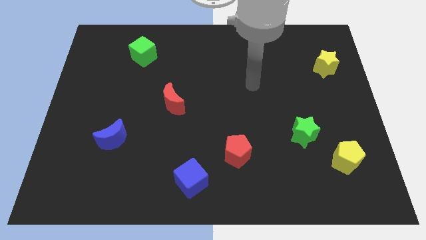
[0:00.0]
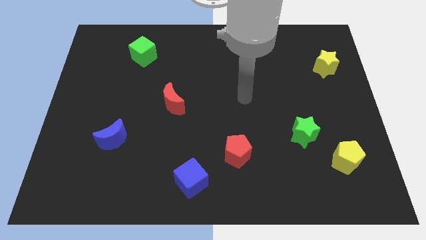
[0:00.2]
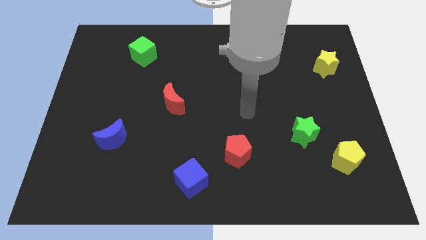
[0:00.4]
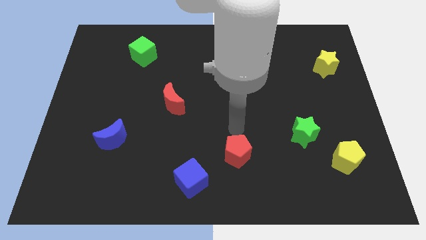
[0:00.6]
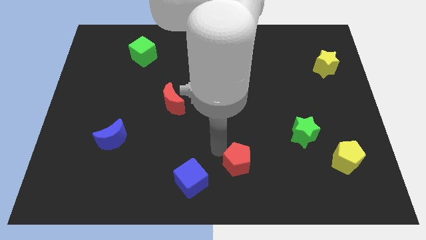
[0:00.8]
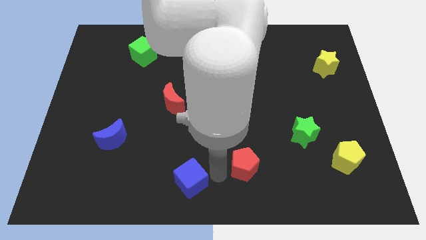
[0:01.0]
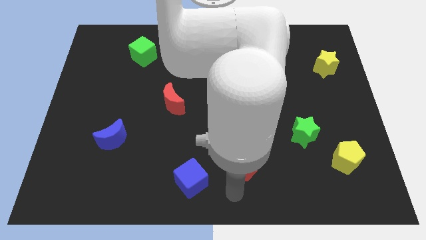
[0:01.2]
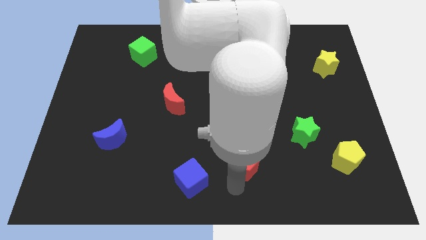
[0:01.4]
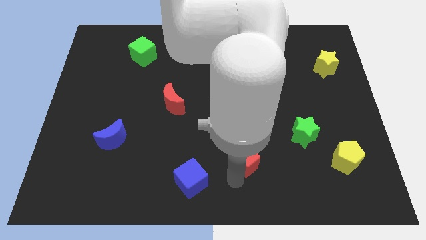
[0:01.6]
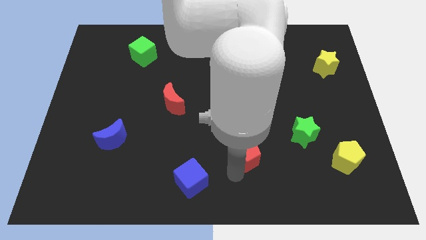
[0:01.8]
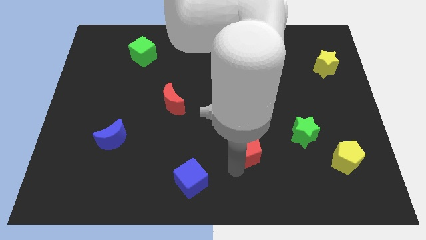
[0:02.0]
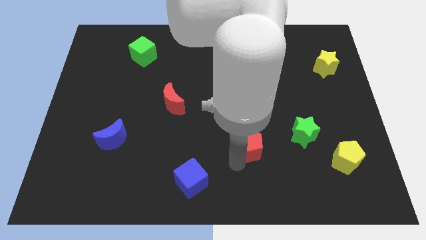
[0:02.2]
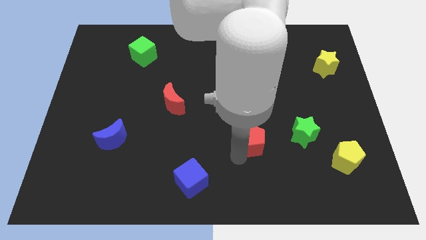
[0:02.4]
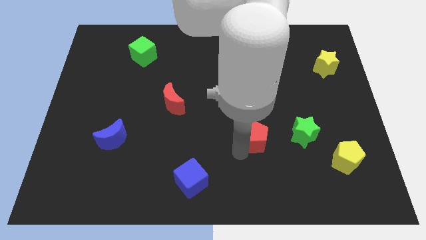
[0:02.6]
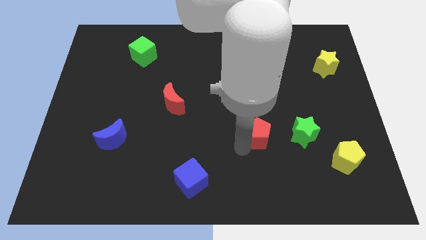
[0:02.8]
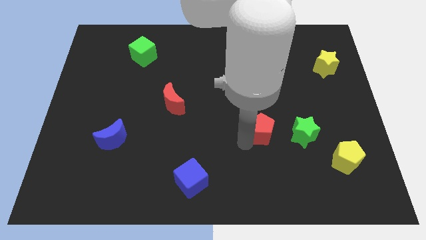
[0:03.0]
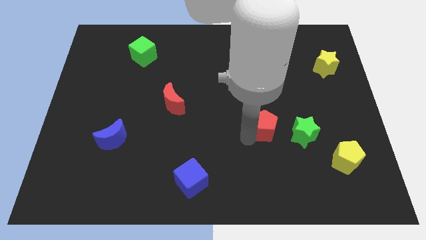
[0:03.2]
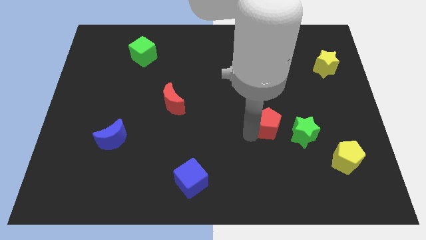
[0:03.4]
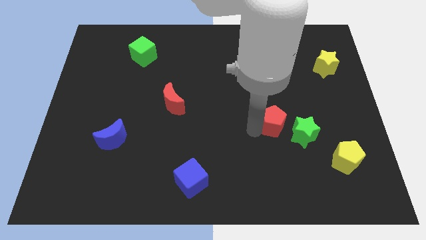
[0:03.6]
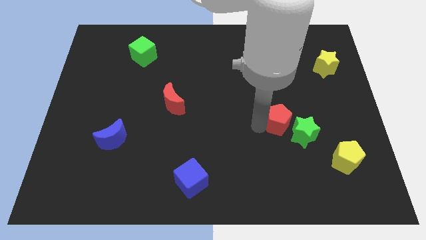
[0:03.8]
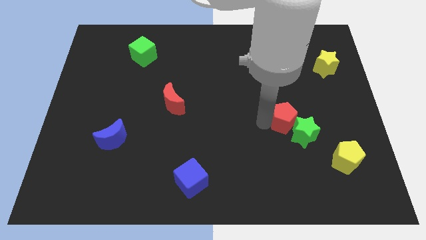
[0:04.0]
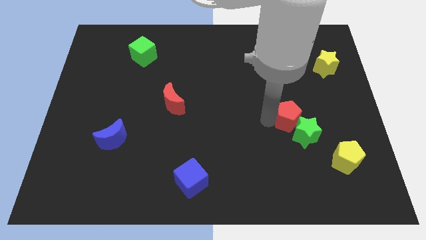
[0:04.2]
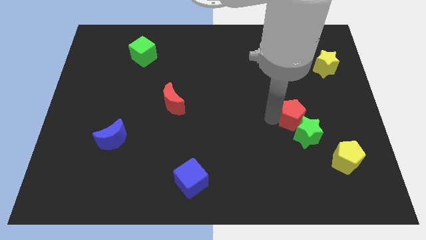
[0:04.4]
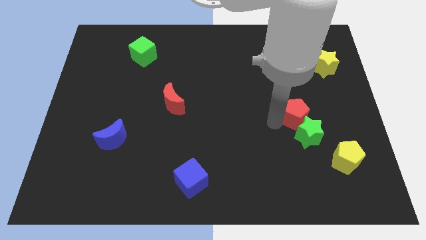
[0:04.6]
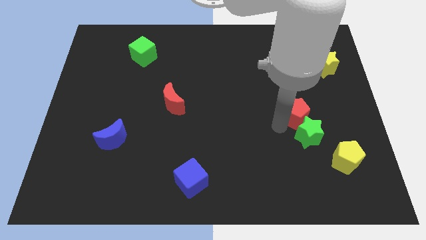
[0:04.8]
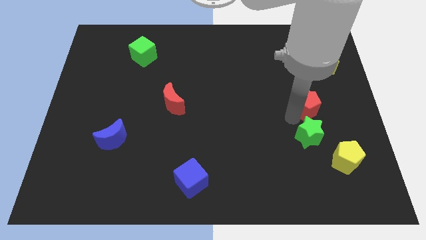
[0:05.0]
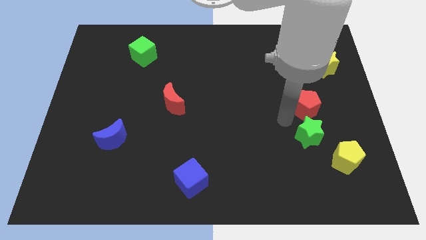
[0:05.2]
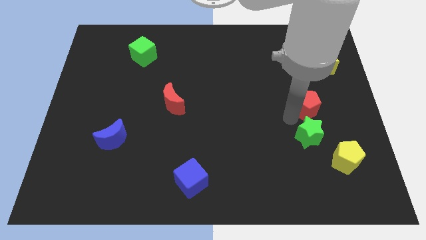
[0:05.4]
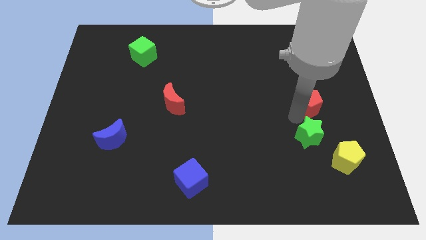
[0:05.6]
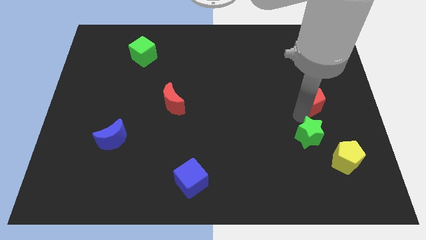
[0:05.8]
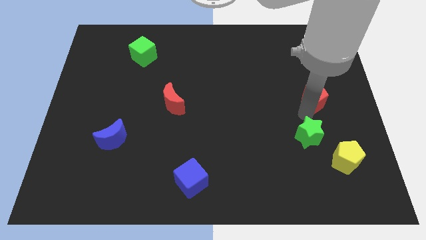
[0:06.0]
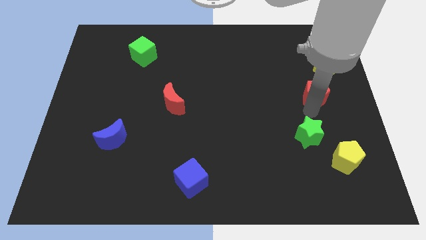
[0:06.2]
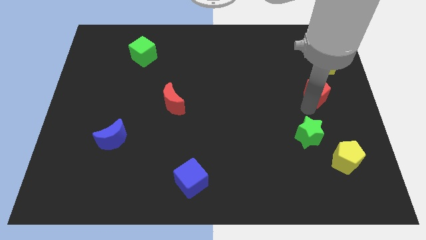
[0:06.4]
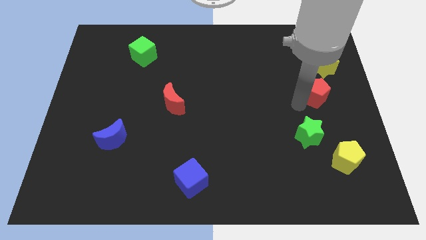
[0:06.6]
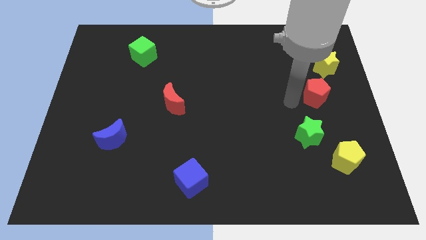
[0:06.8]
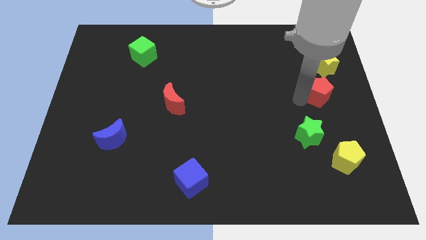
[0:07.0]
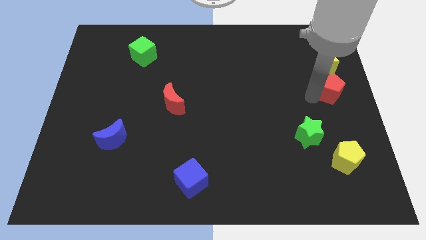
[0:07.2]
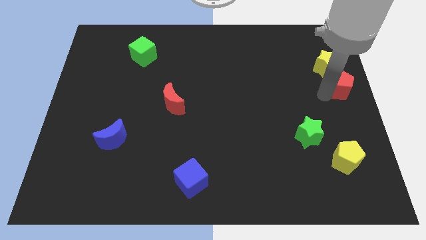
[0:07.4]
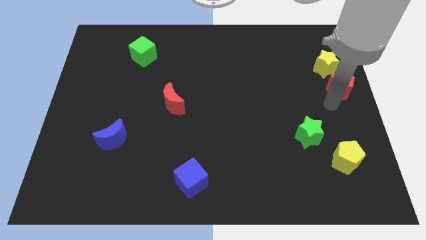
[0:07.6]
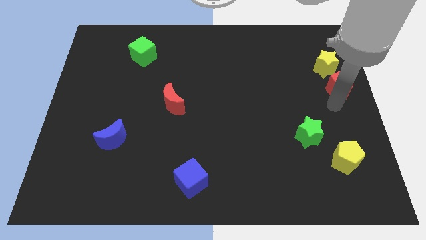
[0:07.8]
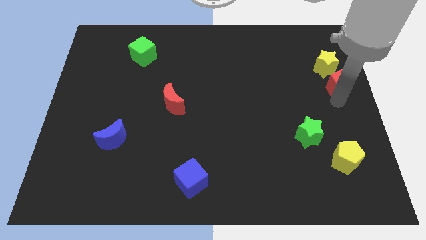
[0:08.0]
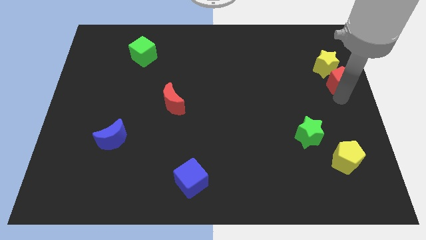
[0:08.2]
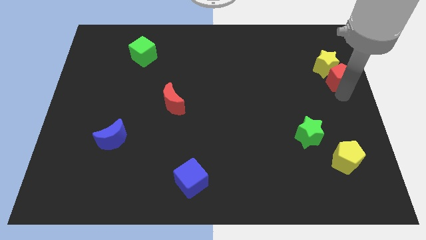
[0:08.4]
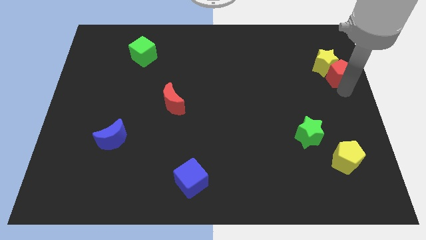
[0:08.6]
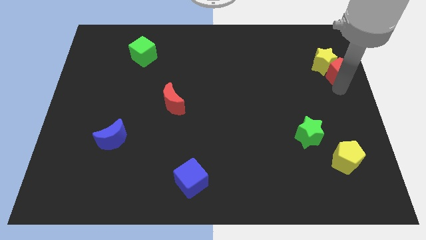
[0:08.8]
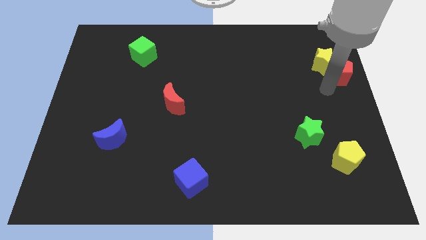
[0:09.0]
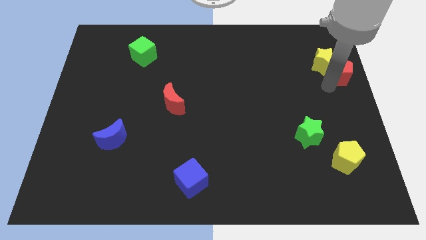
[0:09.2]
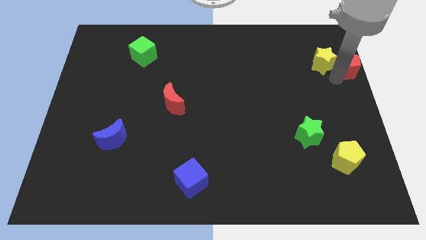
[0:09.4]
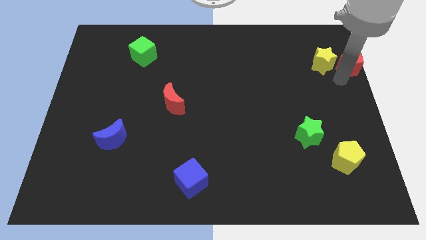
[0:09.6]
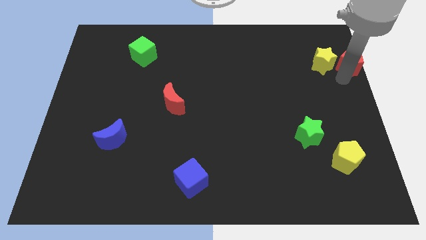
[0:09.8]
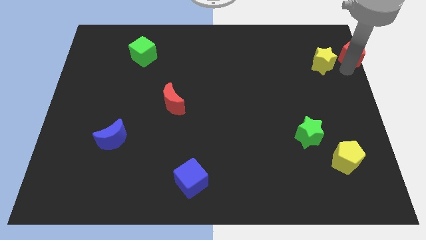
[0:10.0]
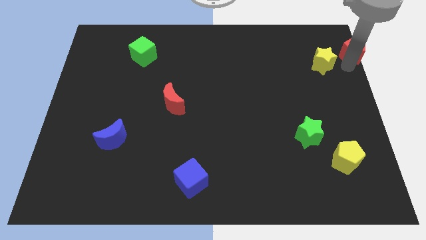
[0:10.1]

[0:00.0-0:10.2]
put the red pentagon to the top right of the board

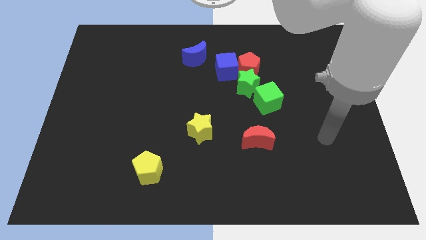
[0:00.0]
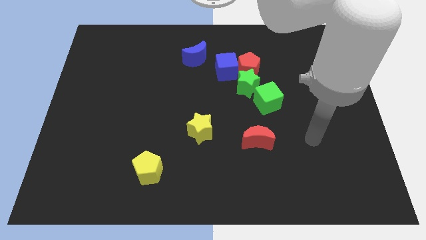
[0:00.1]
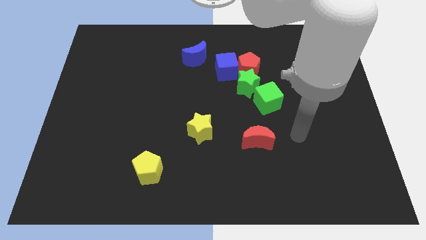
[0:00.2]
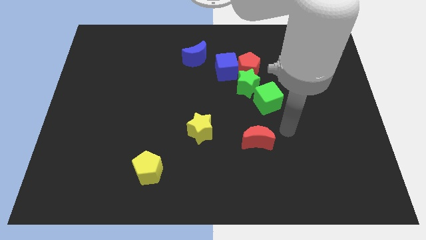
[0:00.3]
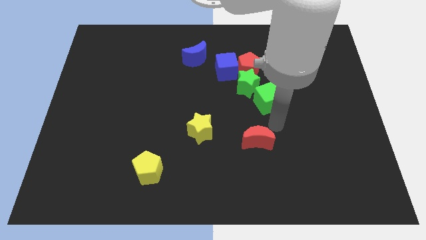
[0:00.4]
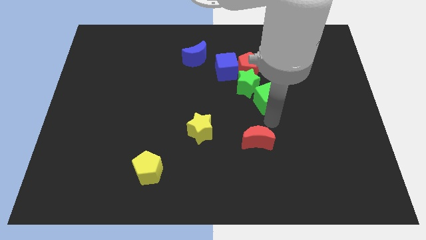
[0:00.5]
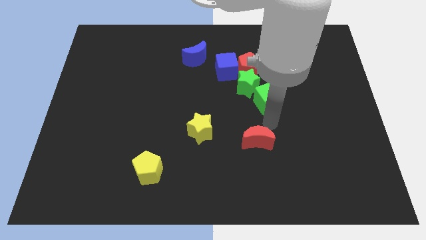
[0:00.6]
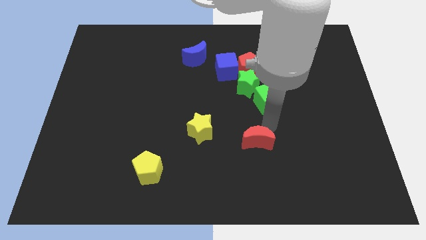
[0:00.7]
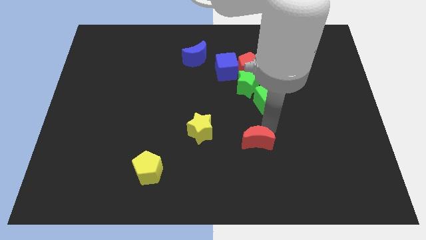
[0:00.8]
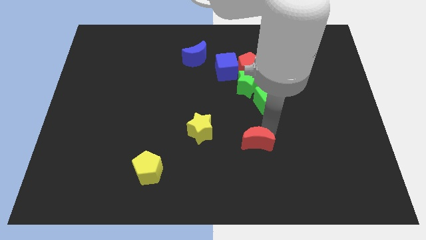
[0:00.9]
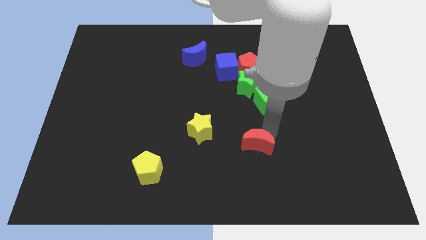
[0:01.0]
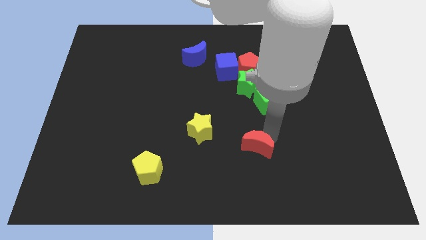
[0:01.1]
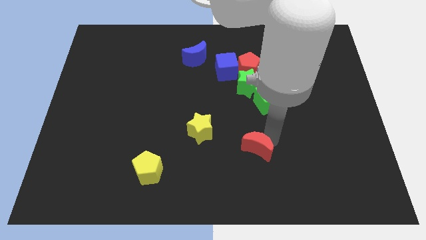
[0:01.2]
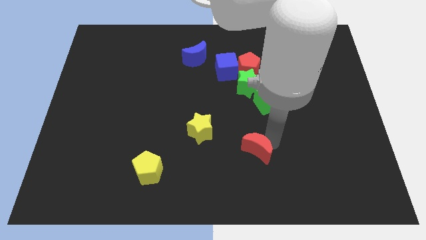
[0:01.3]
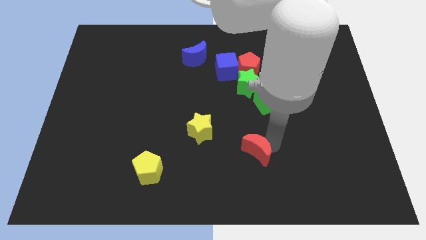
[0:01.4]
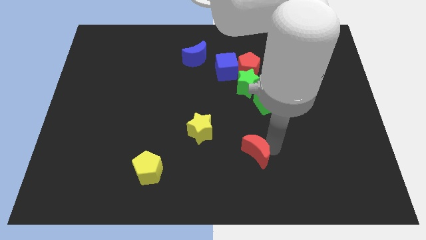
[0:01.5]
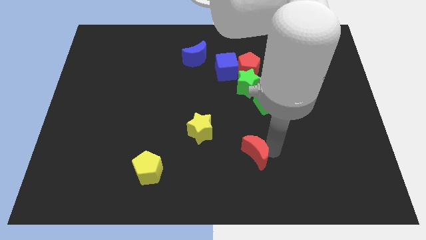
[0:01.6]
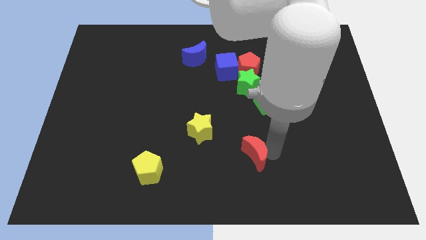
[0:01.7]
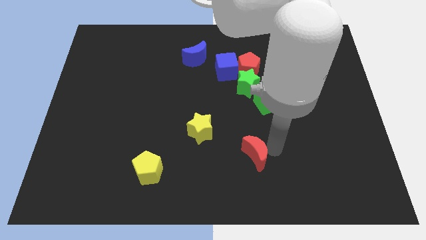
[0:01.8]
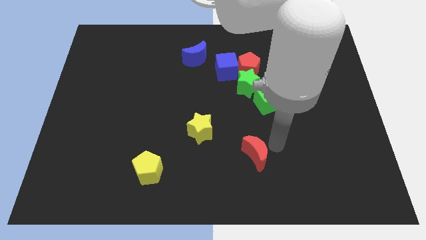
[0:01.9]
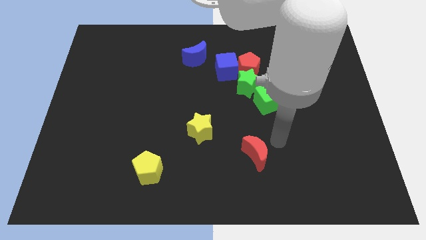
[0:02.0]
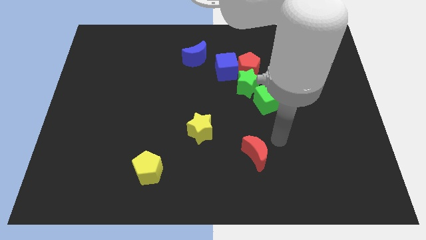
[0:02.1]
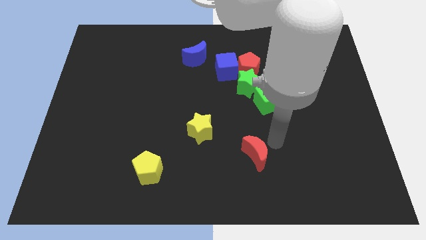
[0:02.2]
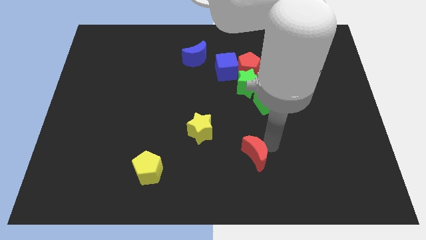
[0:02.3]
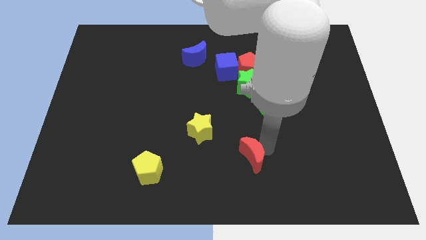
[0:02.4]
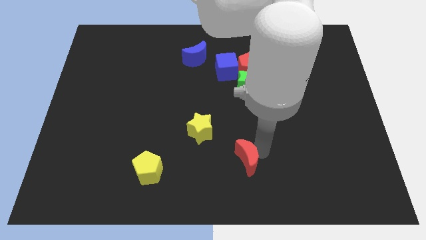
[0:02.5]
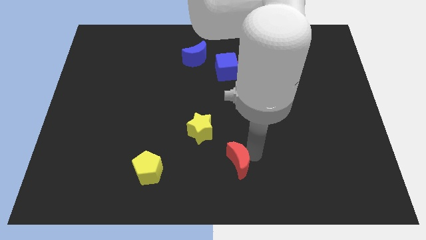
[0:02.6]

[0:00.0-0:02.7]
put the red moon to the bottom
